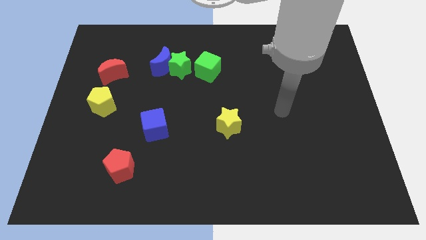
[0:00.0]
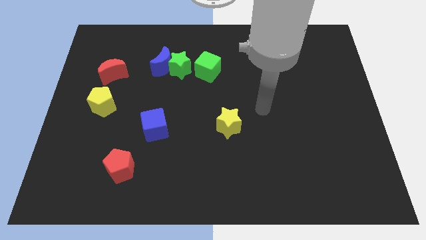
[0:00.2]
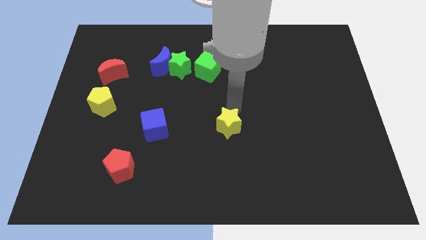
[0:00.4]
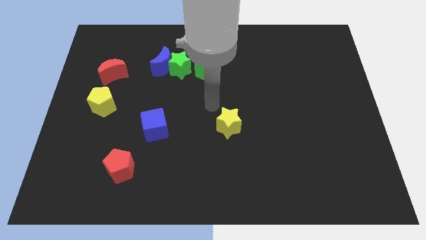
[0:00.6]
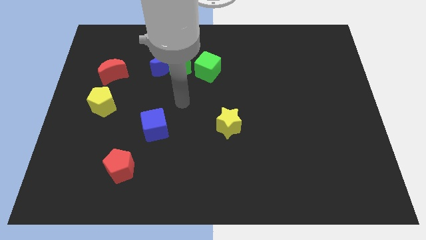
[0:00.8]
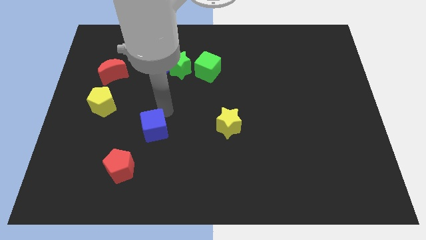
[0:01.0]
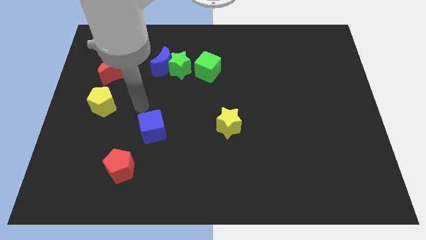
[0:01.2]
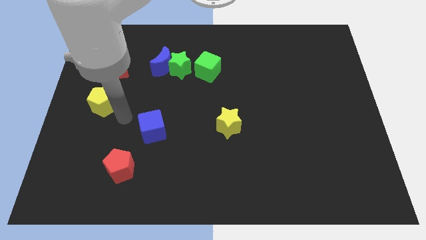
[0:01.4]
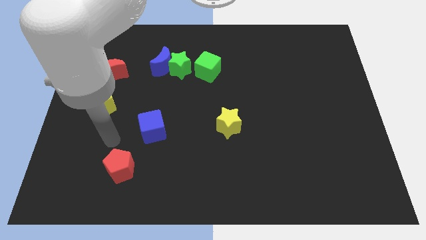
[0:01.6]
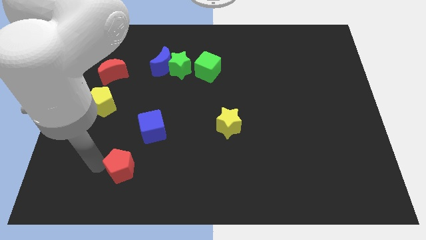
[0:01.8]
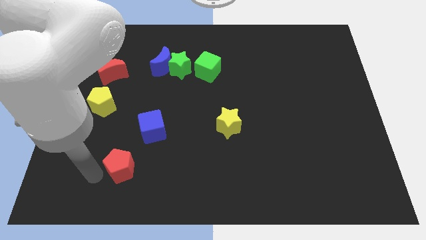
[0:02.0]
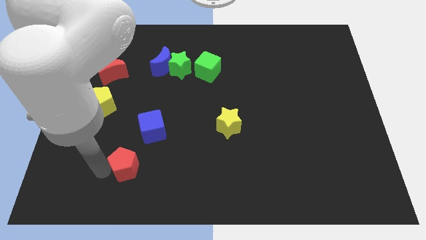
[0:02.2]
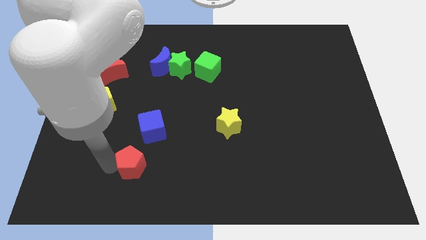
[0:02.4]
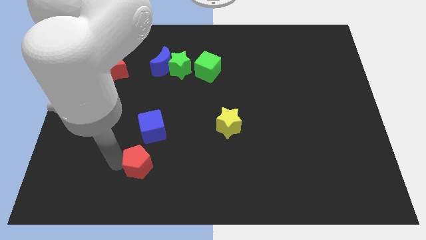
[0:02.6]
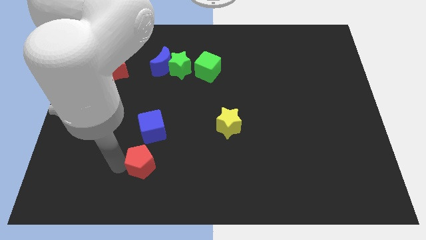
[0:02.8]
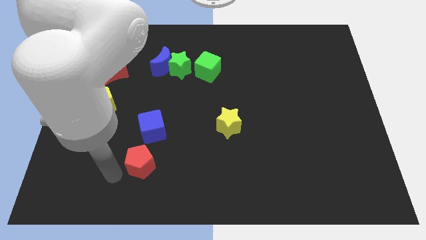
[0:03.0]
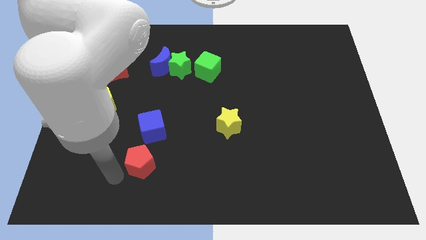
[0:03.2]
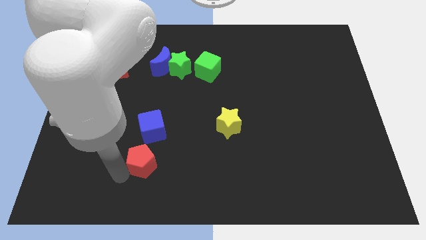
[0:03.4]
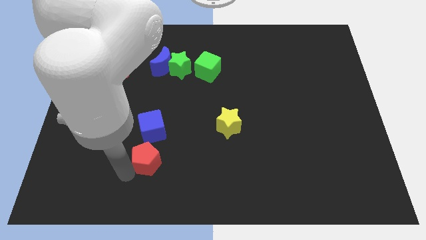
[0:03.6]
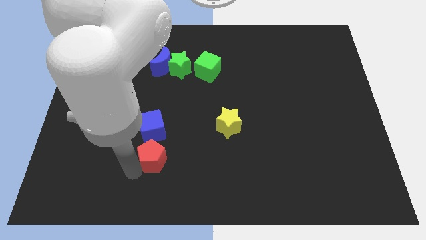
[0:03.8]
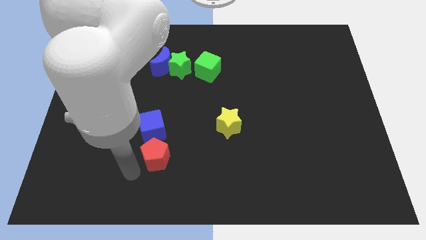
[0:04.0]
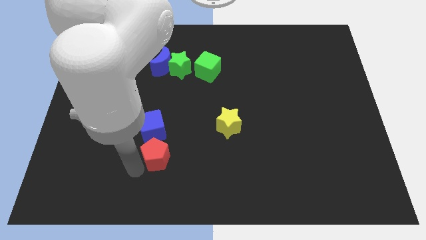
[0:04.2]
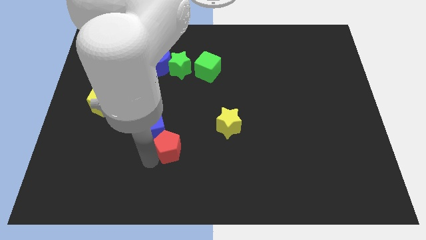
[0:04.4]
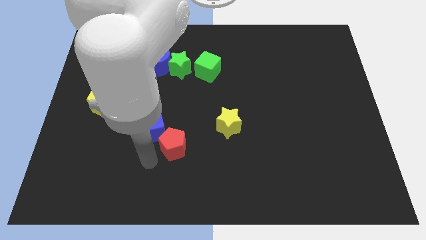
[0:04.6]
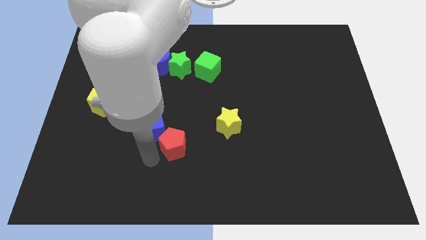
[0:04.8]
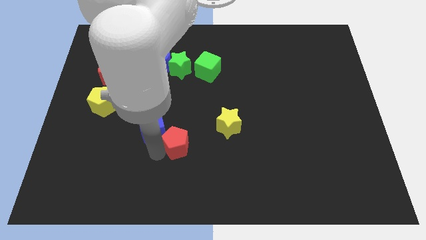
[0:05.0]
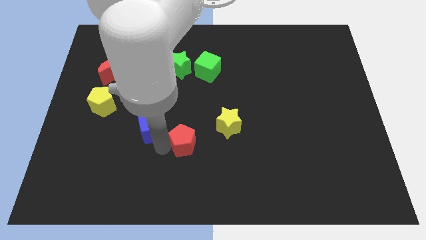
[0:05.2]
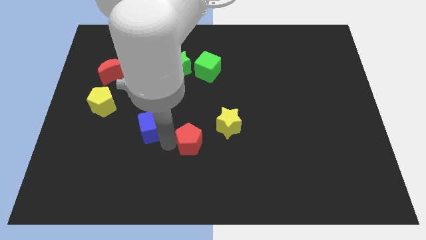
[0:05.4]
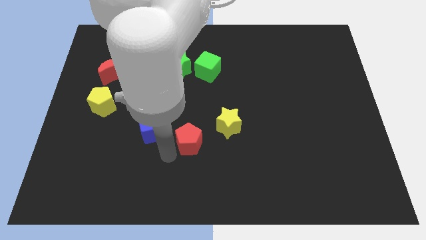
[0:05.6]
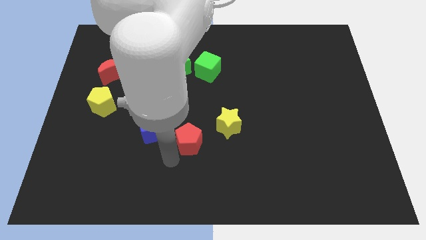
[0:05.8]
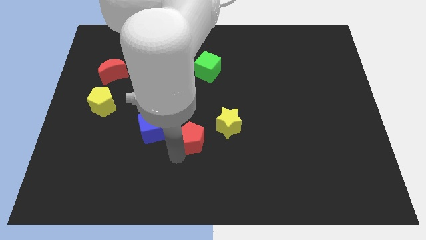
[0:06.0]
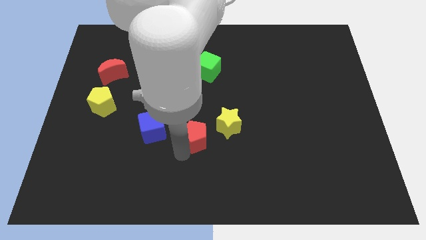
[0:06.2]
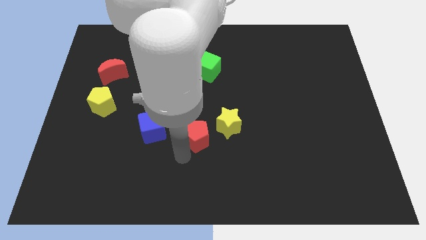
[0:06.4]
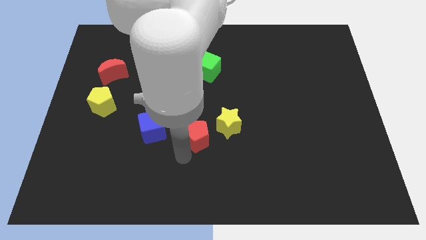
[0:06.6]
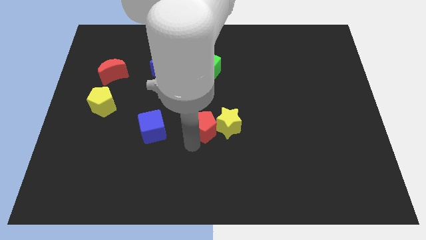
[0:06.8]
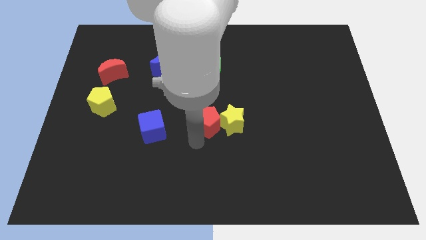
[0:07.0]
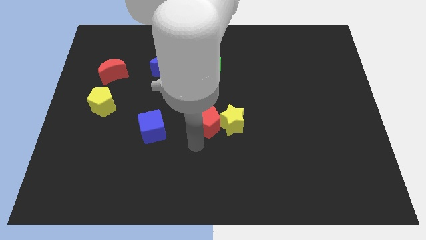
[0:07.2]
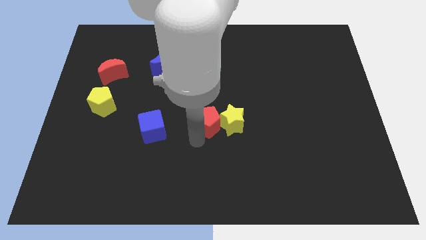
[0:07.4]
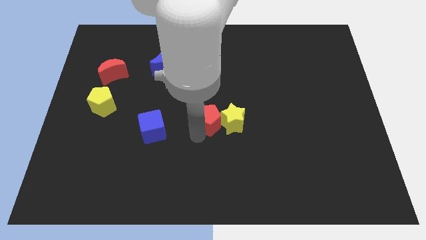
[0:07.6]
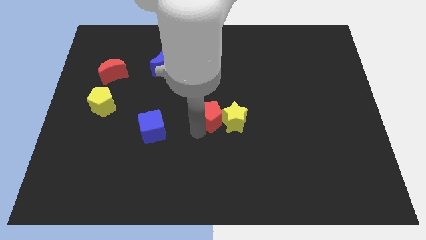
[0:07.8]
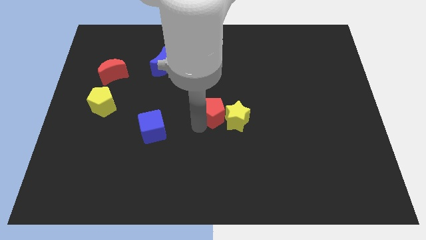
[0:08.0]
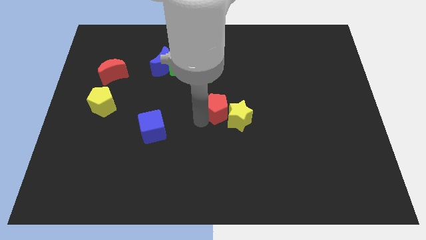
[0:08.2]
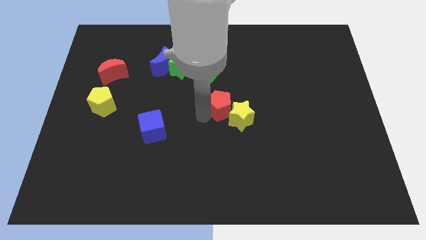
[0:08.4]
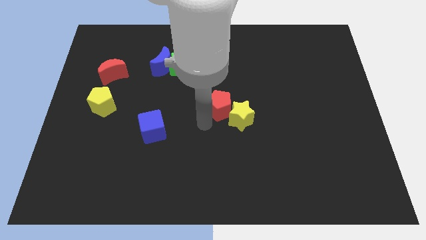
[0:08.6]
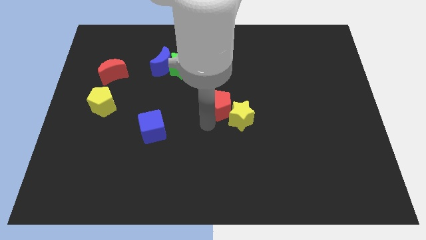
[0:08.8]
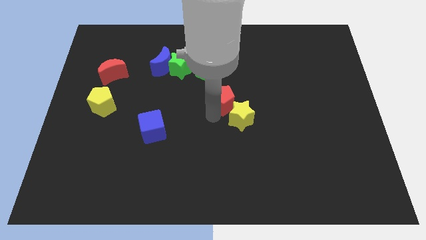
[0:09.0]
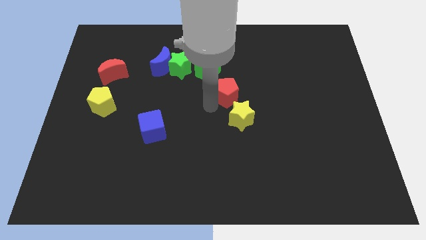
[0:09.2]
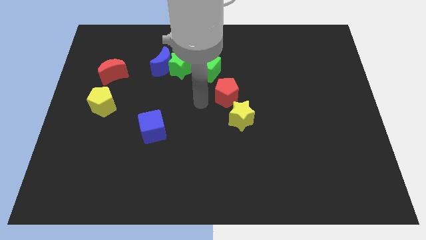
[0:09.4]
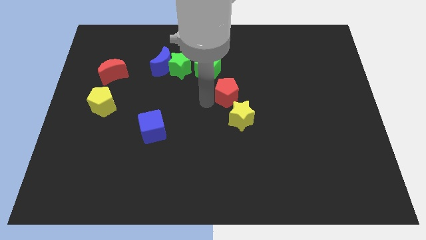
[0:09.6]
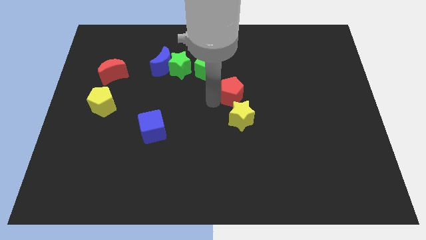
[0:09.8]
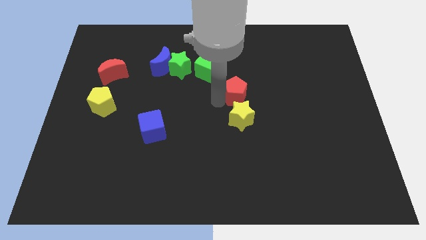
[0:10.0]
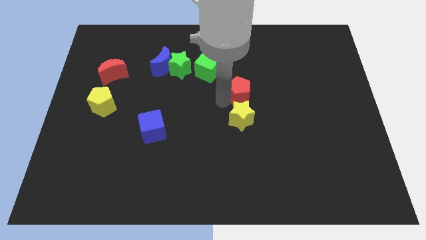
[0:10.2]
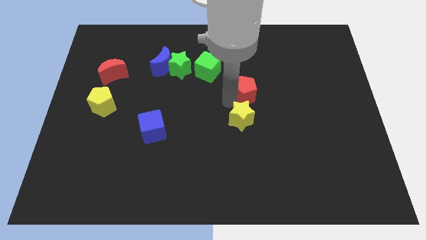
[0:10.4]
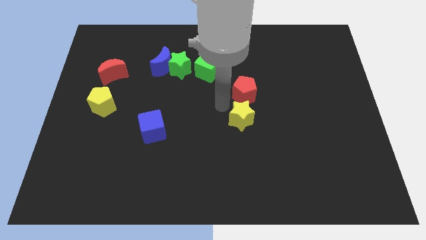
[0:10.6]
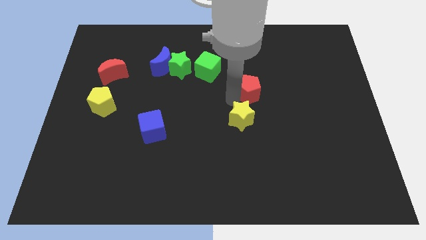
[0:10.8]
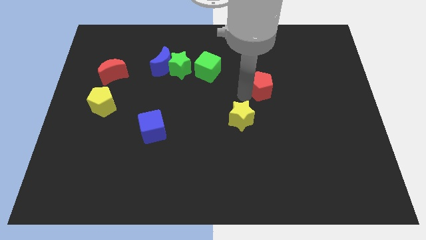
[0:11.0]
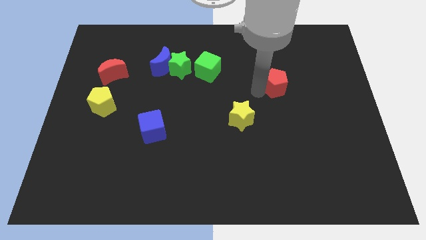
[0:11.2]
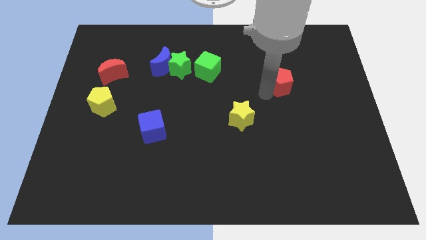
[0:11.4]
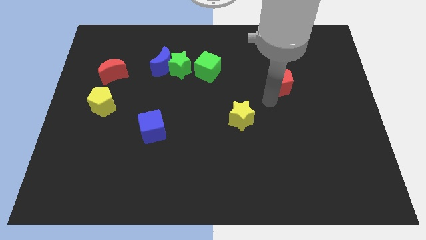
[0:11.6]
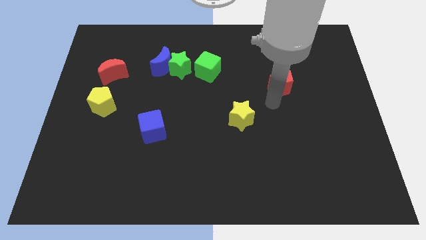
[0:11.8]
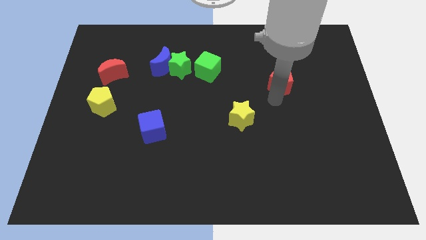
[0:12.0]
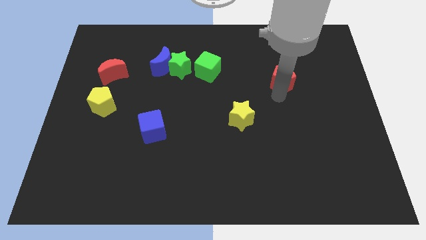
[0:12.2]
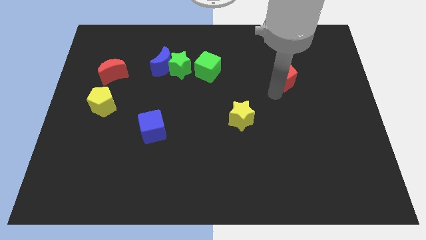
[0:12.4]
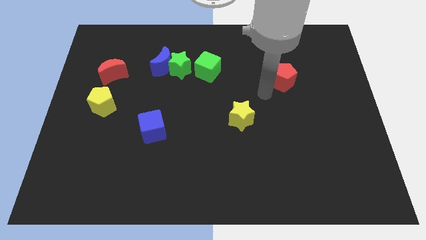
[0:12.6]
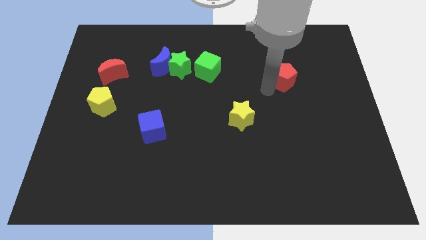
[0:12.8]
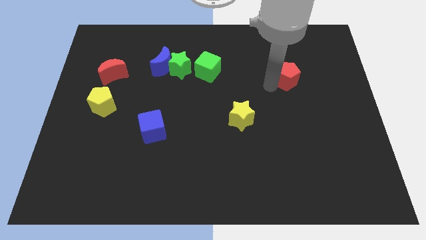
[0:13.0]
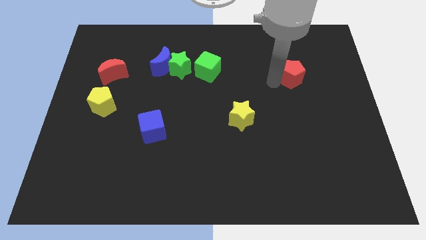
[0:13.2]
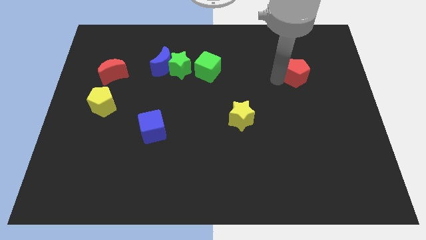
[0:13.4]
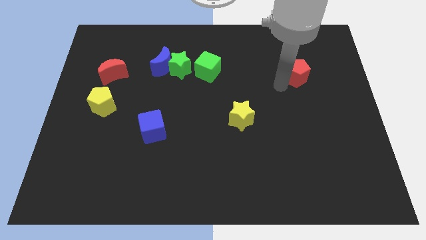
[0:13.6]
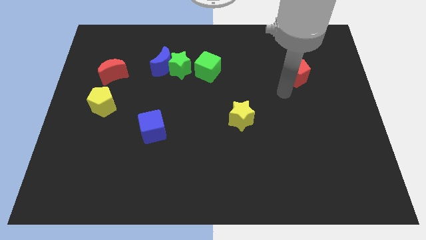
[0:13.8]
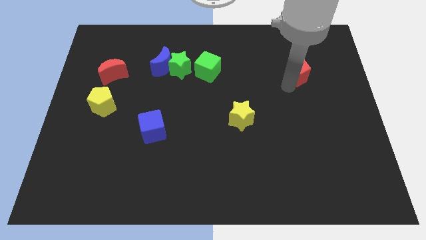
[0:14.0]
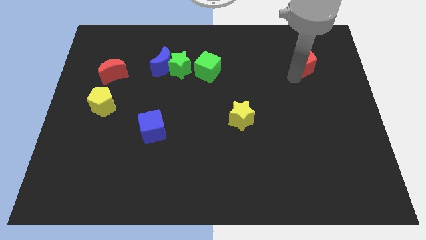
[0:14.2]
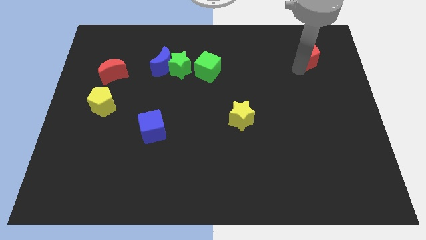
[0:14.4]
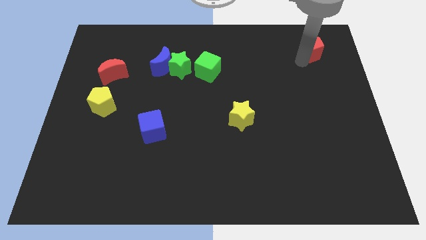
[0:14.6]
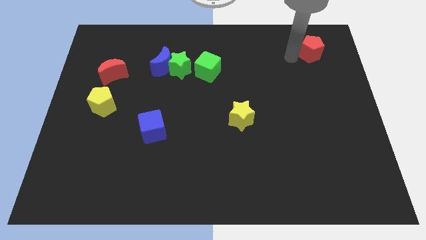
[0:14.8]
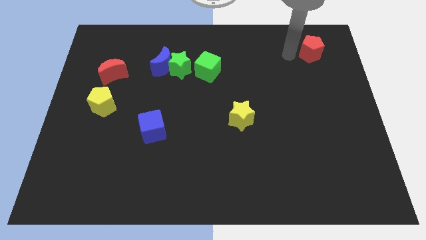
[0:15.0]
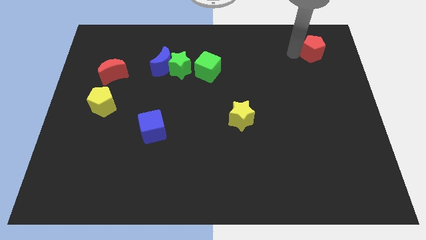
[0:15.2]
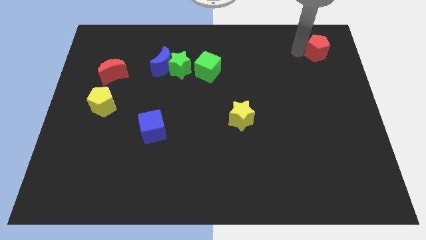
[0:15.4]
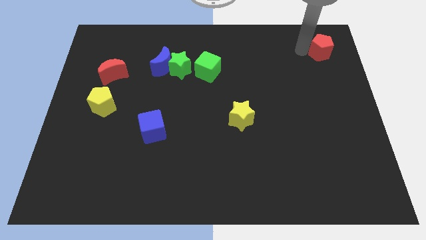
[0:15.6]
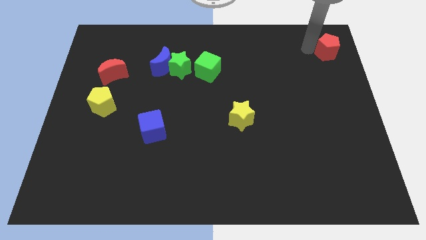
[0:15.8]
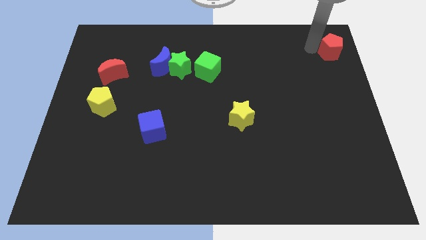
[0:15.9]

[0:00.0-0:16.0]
slide the red pentagon to the top right
